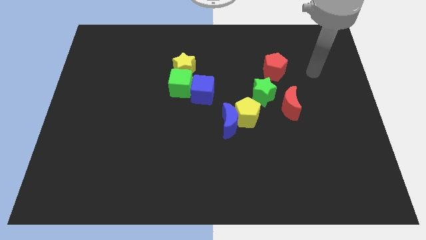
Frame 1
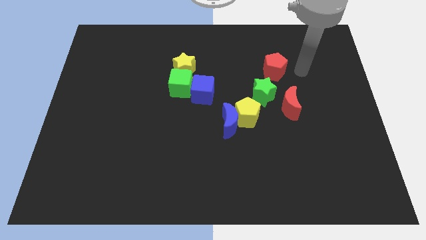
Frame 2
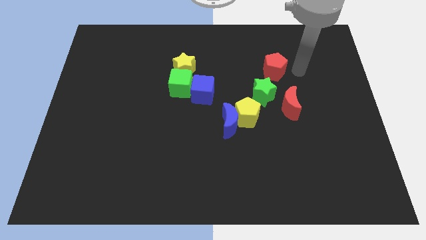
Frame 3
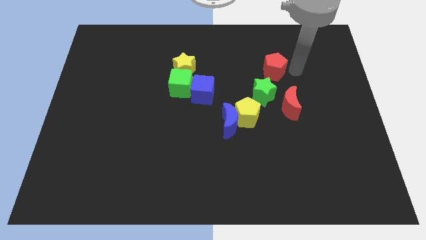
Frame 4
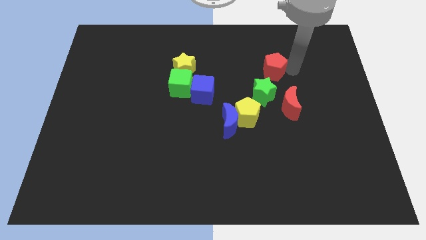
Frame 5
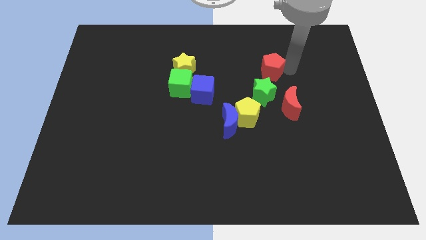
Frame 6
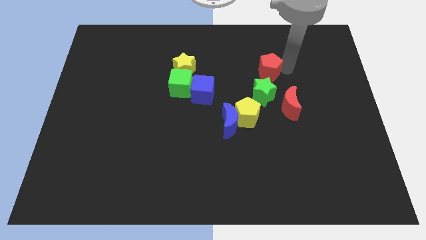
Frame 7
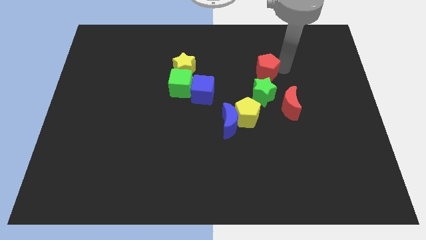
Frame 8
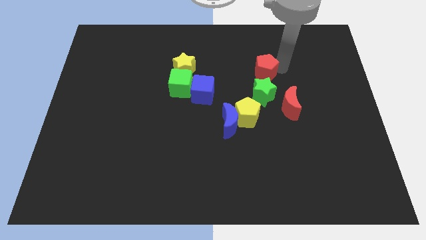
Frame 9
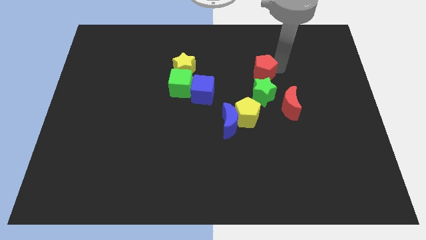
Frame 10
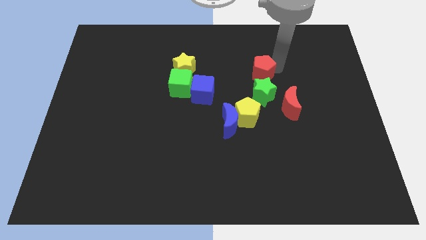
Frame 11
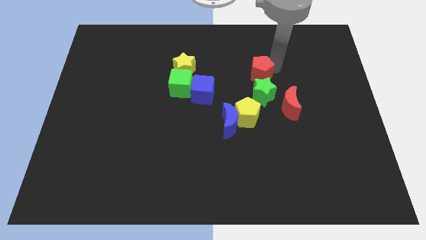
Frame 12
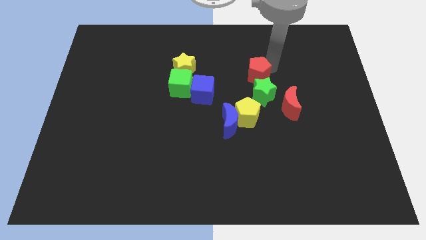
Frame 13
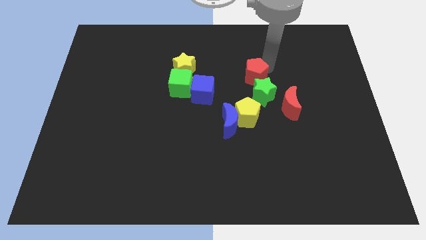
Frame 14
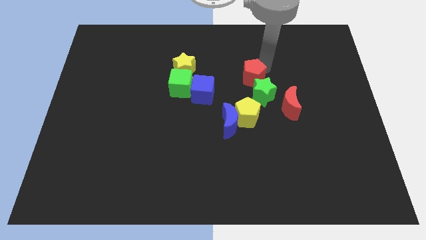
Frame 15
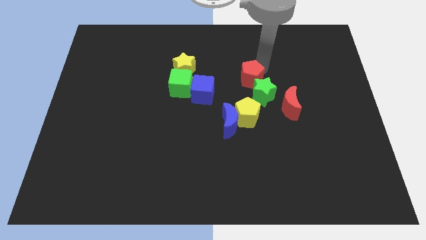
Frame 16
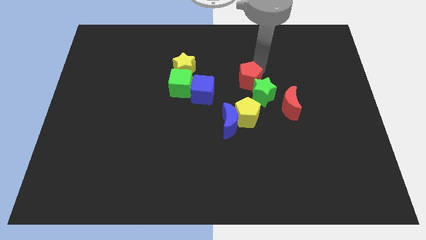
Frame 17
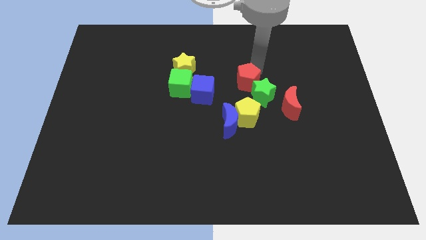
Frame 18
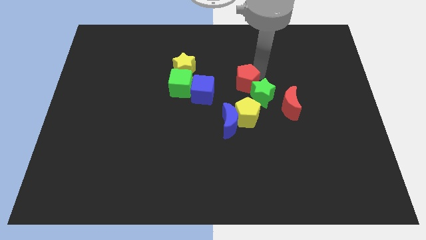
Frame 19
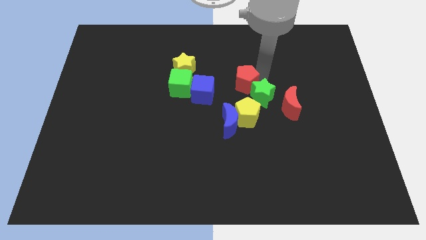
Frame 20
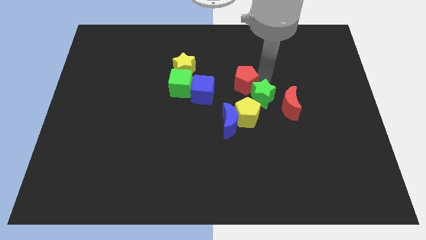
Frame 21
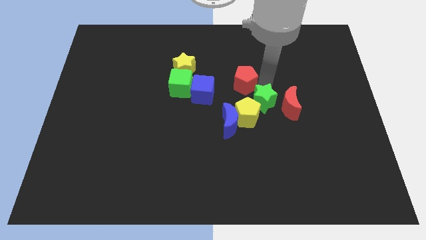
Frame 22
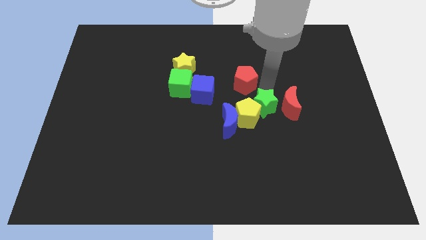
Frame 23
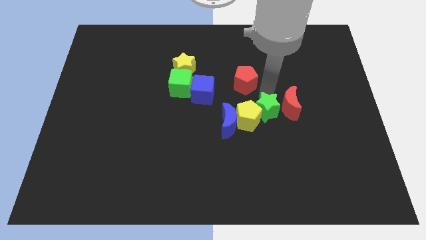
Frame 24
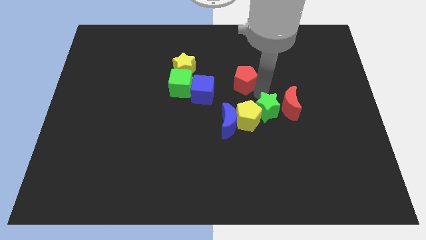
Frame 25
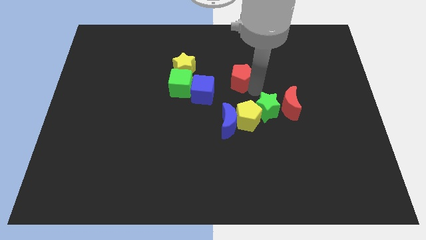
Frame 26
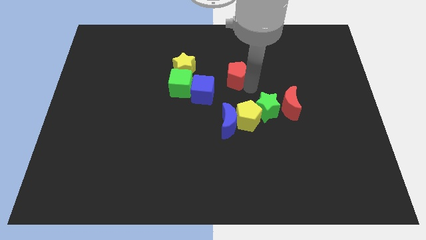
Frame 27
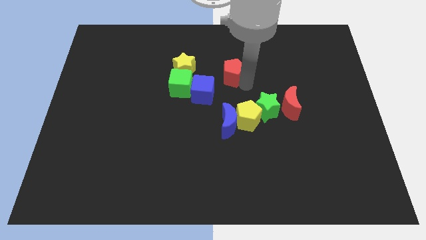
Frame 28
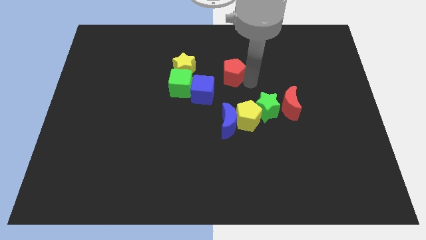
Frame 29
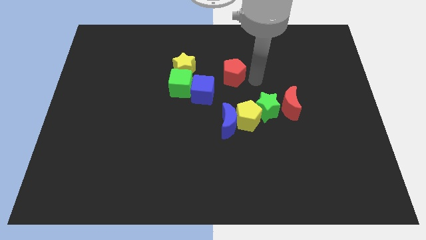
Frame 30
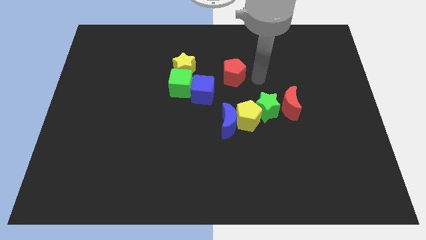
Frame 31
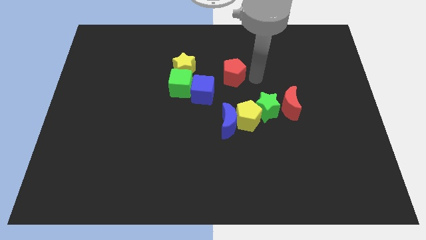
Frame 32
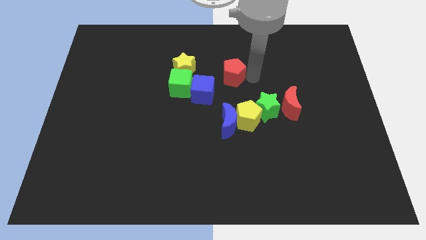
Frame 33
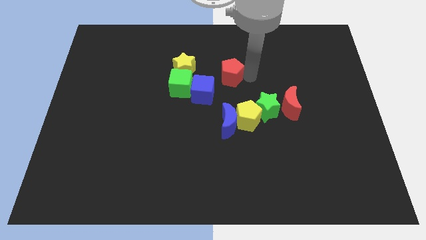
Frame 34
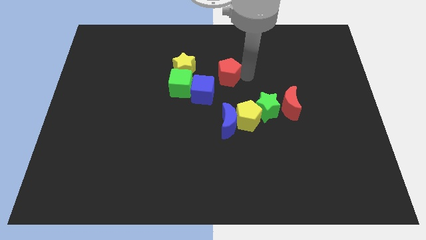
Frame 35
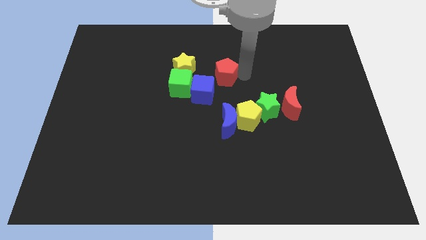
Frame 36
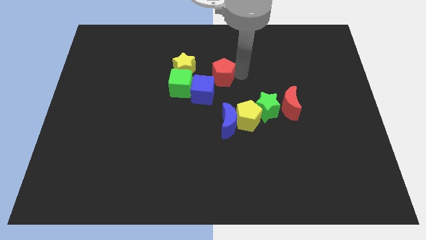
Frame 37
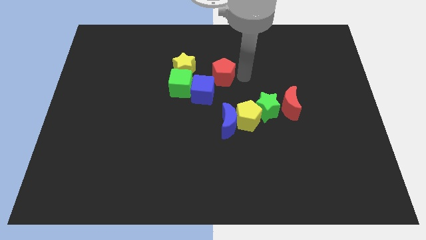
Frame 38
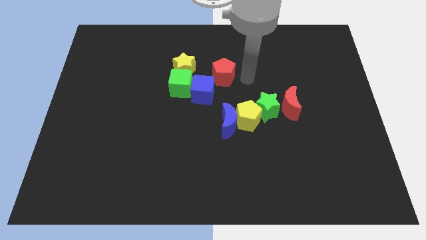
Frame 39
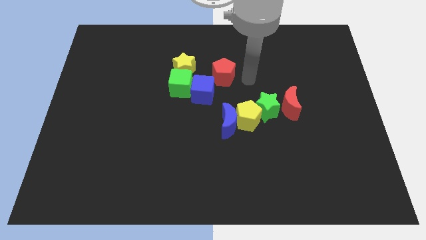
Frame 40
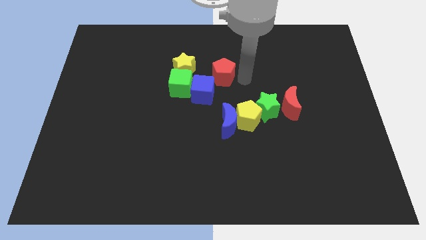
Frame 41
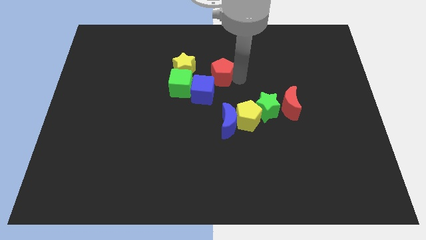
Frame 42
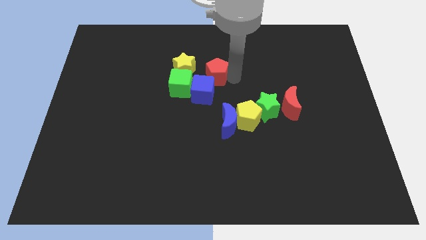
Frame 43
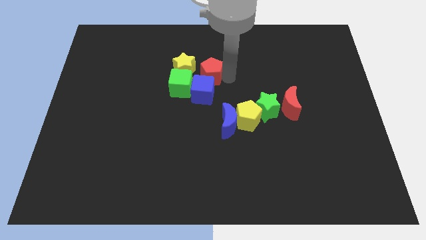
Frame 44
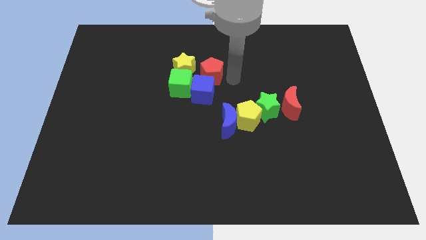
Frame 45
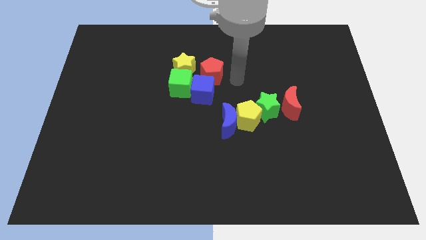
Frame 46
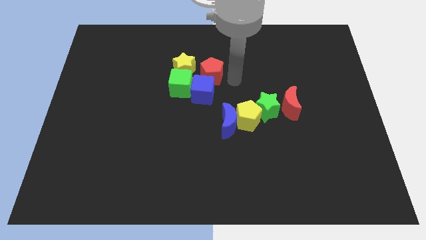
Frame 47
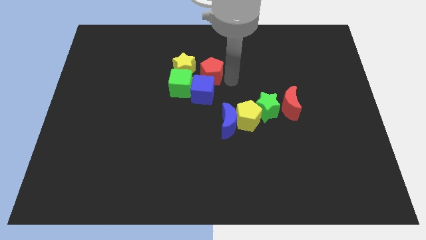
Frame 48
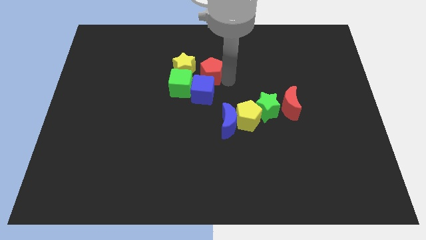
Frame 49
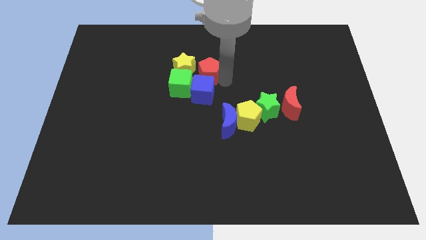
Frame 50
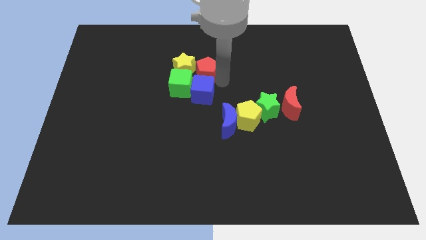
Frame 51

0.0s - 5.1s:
put the red pentagon to the yellow star

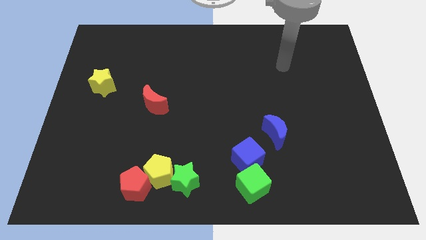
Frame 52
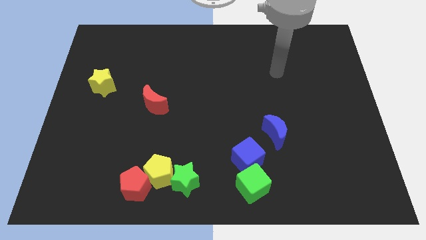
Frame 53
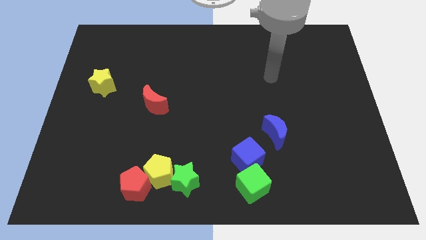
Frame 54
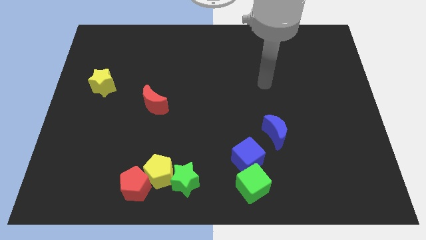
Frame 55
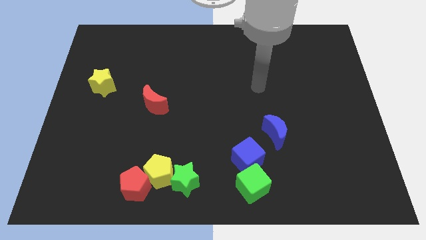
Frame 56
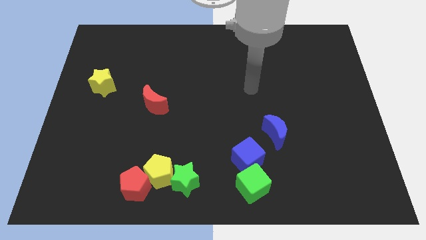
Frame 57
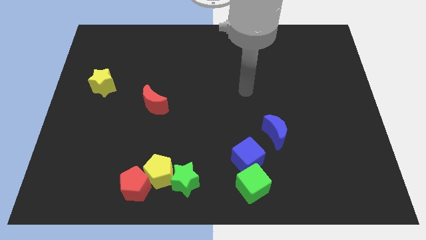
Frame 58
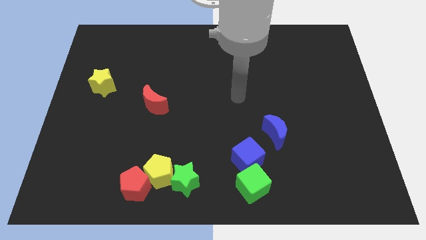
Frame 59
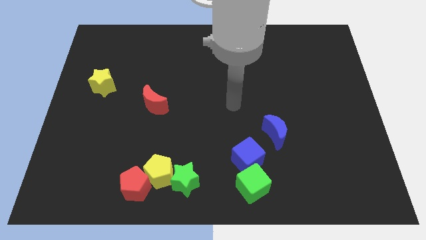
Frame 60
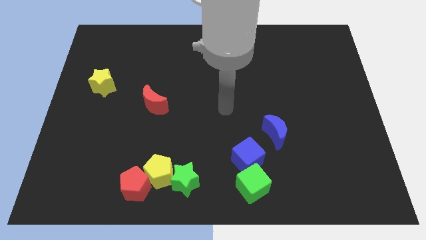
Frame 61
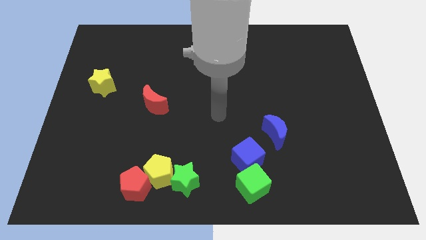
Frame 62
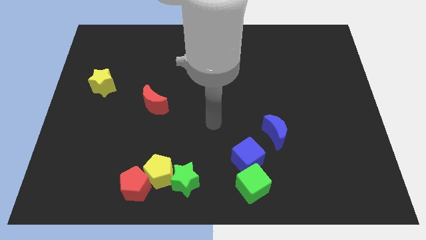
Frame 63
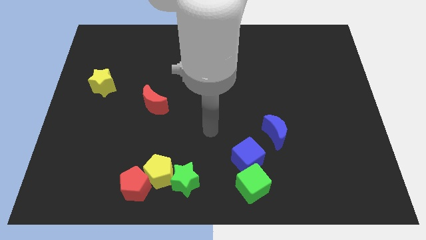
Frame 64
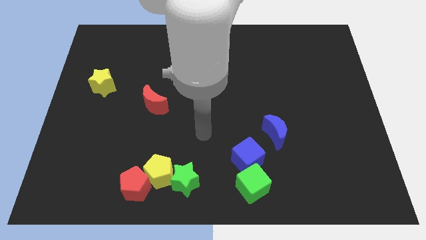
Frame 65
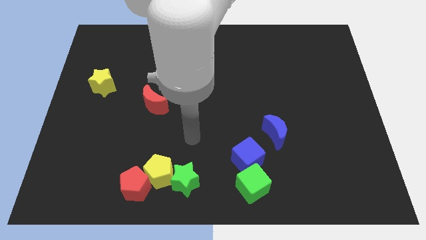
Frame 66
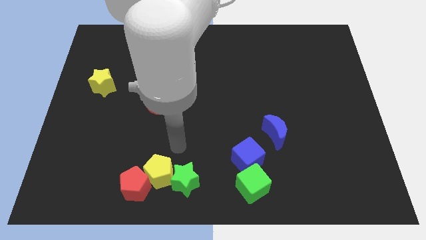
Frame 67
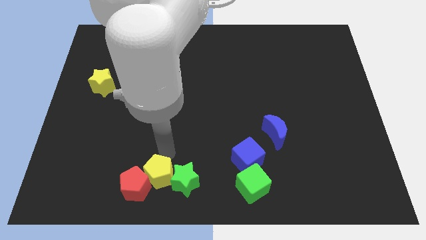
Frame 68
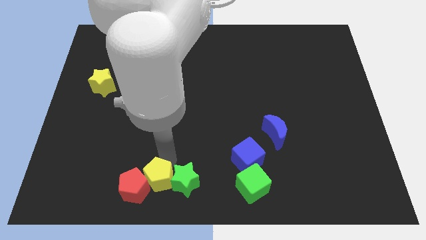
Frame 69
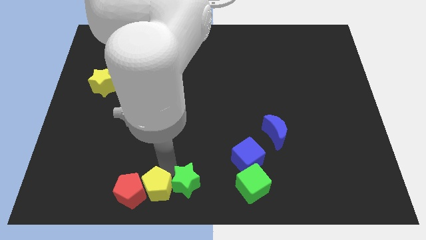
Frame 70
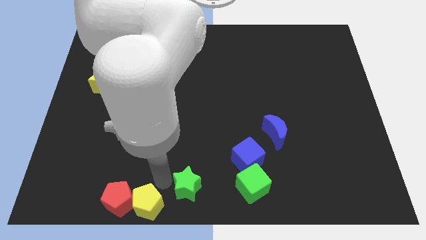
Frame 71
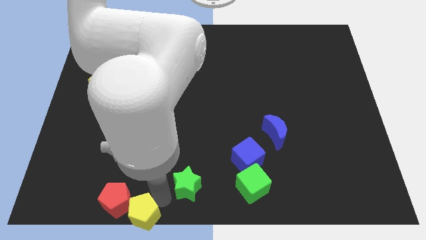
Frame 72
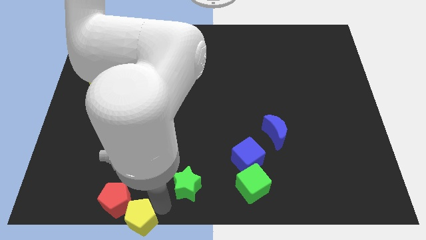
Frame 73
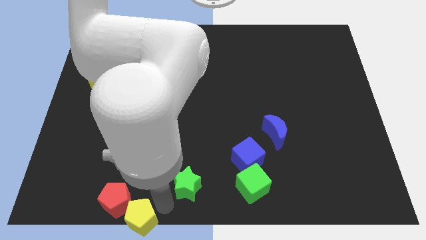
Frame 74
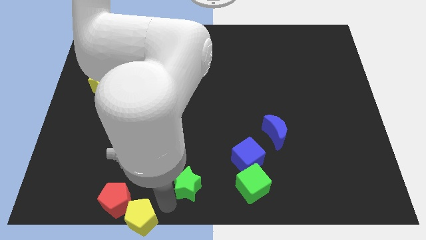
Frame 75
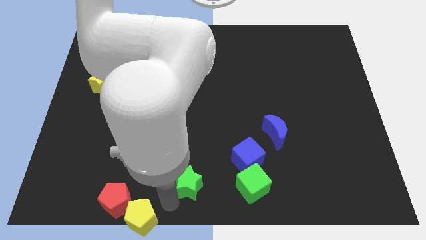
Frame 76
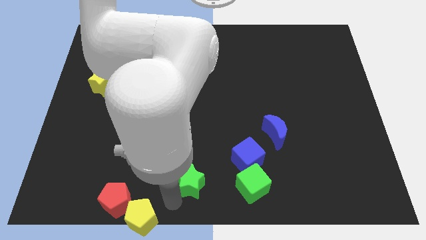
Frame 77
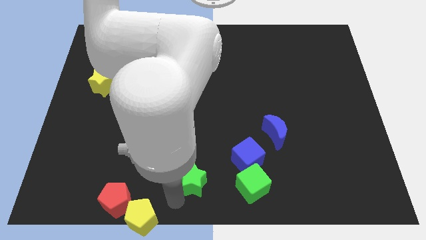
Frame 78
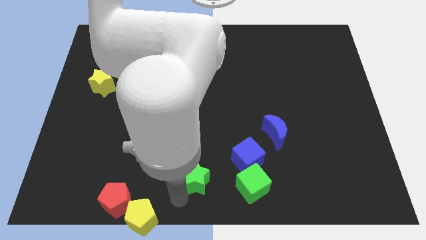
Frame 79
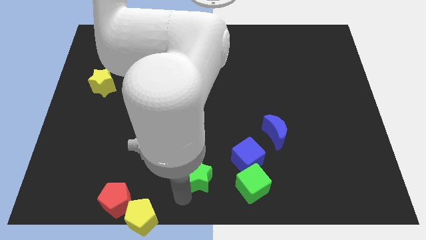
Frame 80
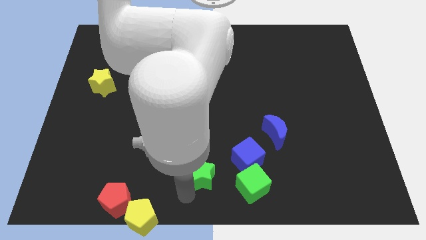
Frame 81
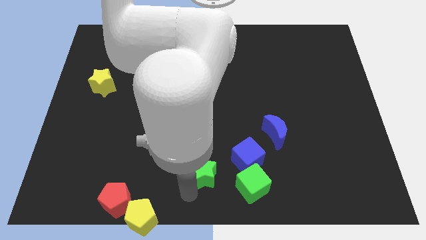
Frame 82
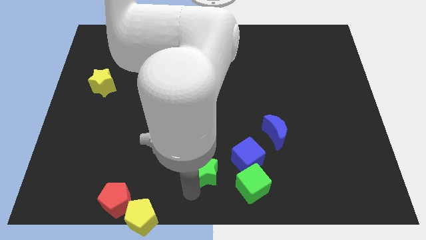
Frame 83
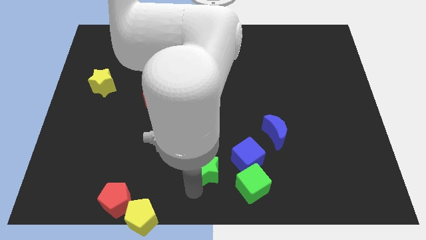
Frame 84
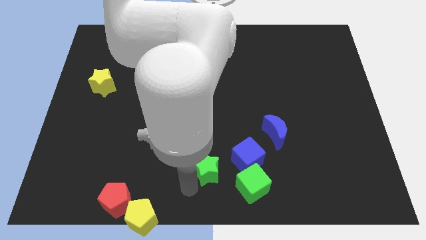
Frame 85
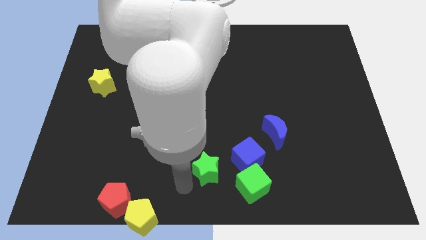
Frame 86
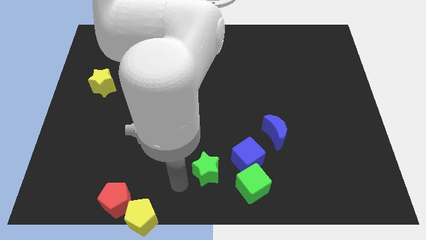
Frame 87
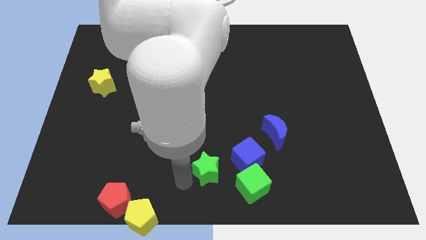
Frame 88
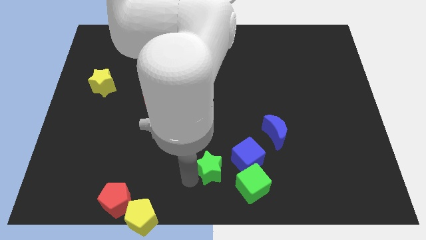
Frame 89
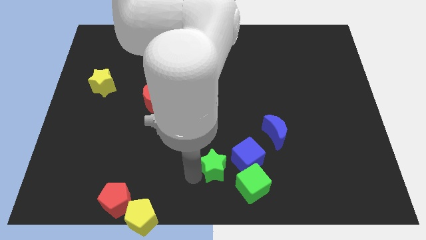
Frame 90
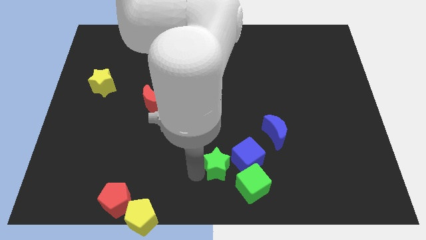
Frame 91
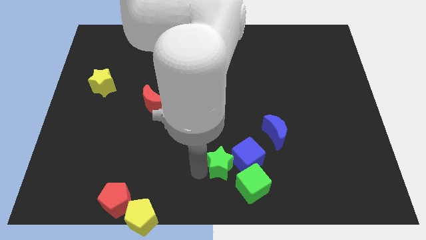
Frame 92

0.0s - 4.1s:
push the green star close to the blue cube
